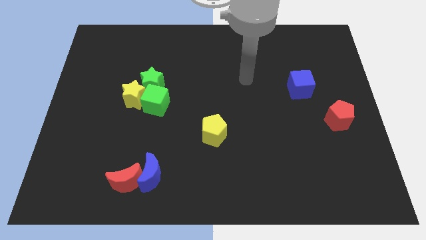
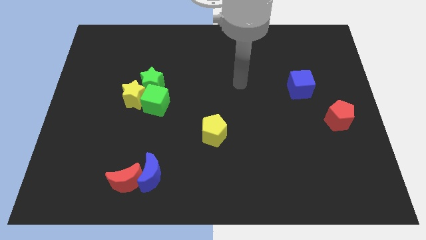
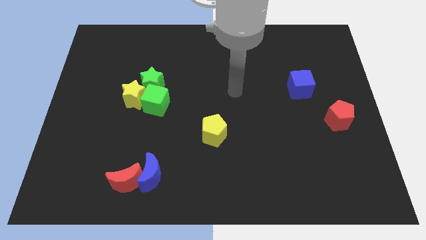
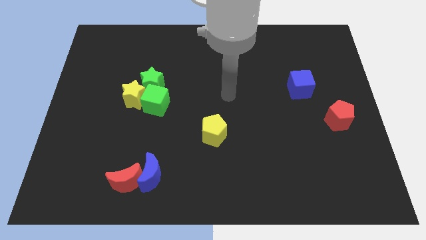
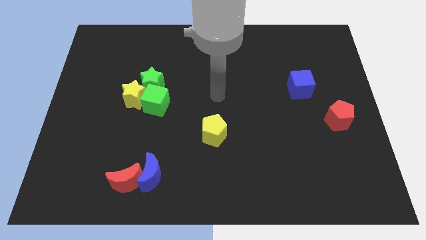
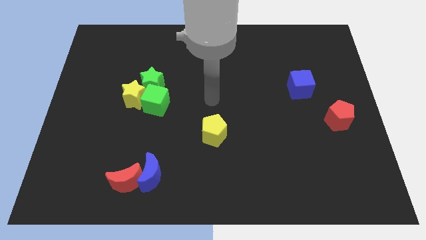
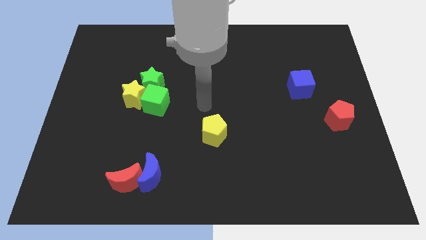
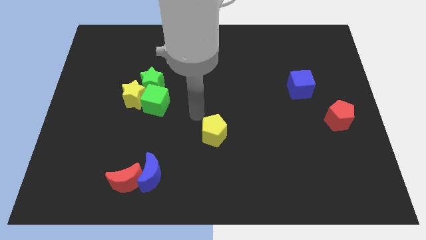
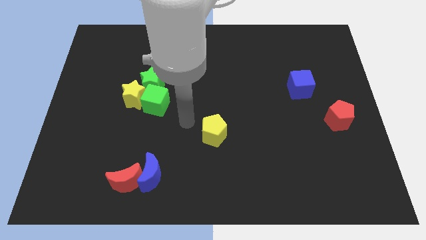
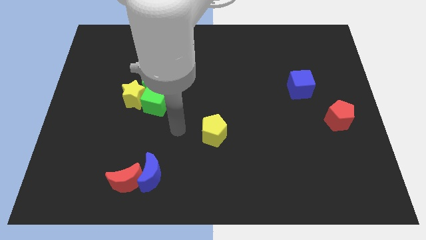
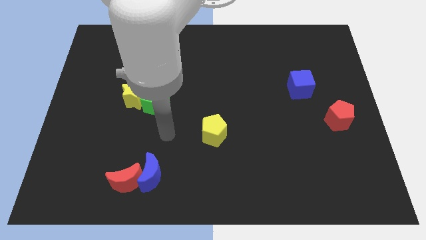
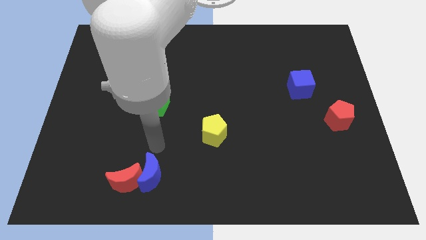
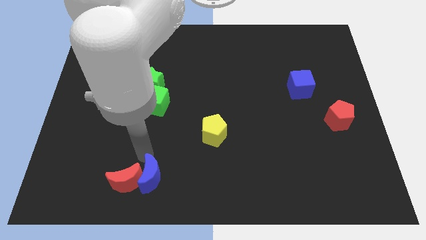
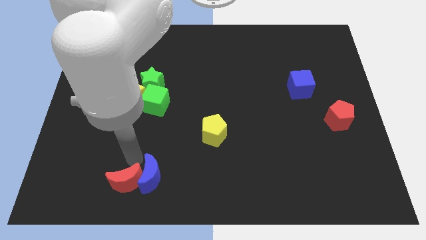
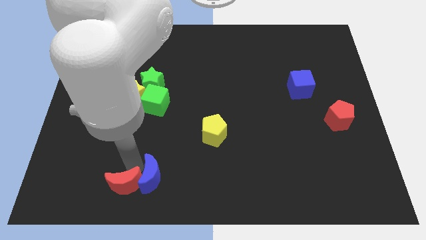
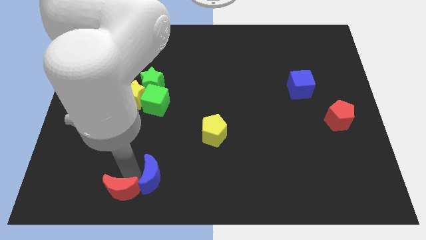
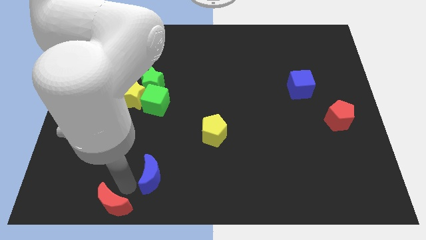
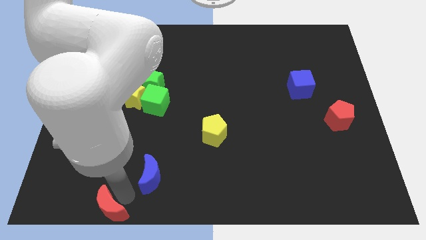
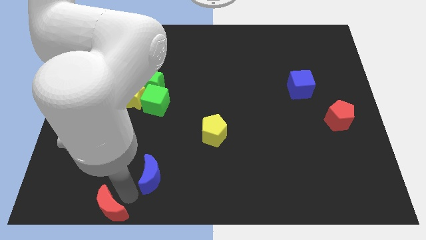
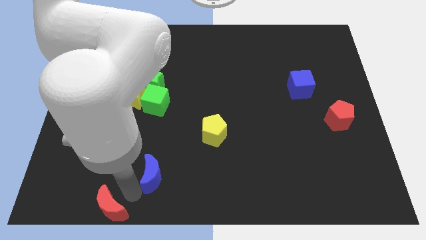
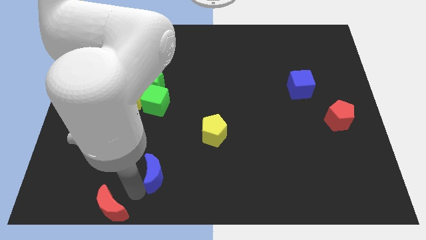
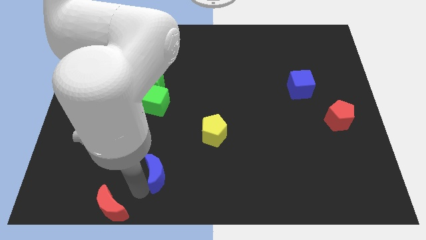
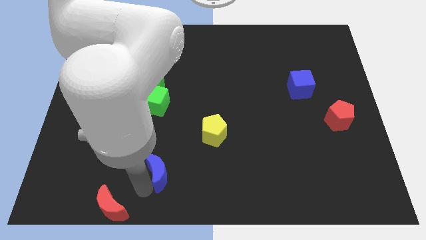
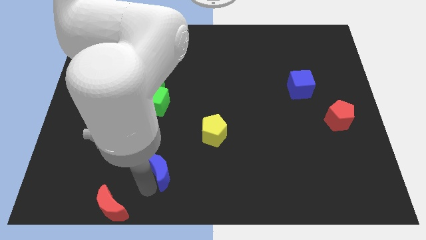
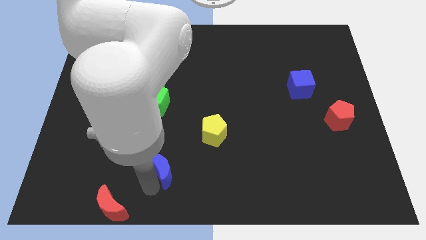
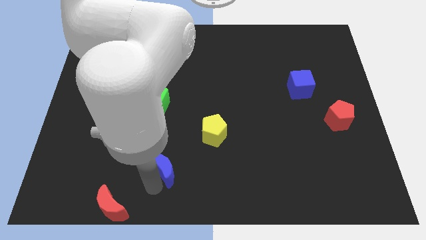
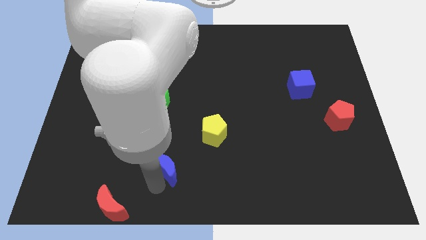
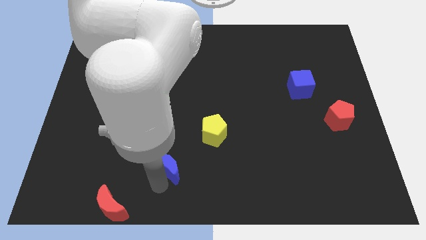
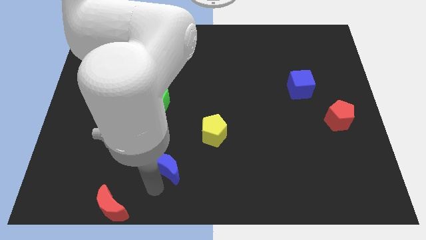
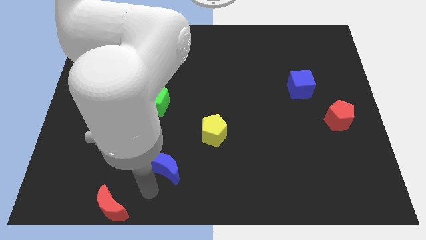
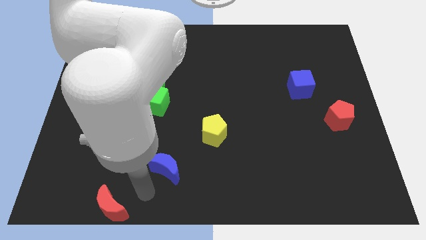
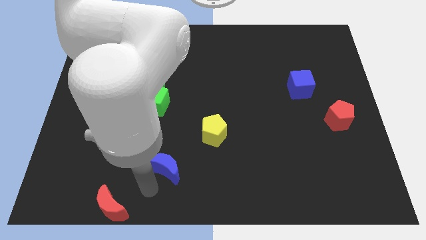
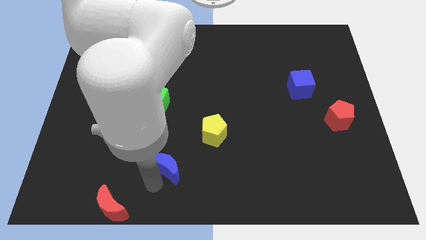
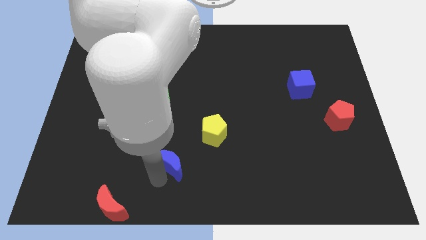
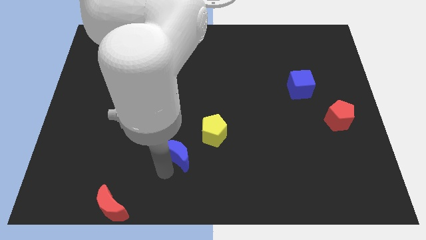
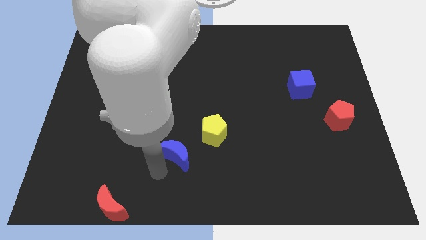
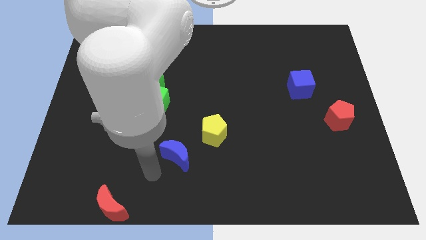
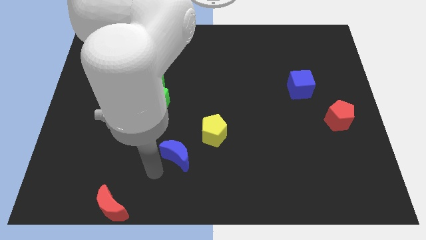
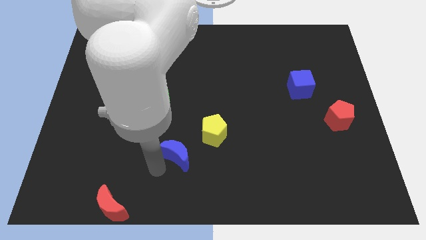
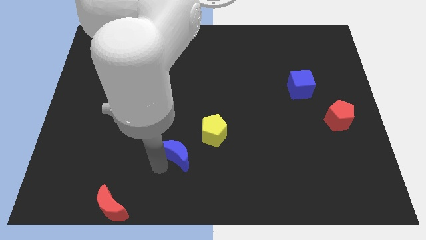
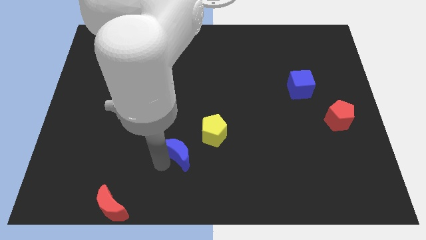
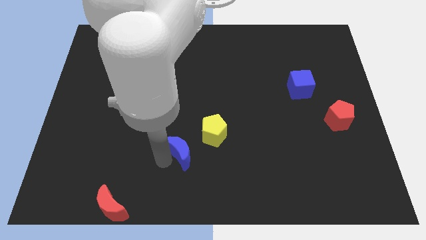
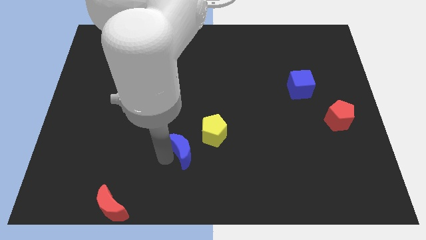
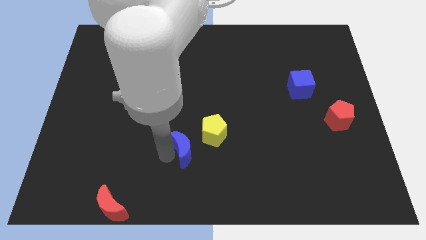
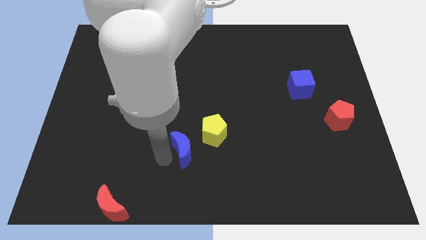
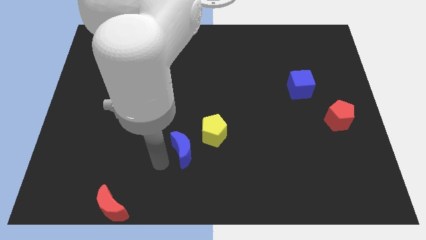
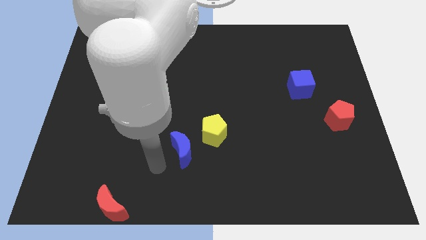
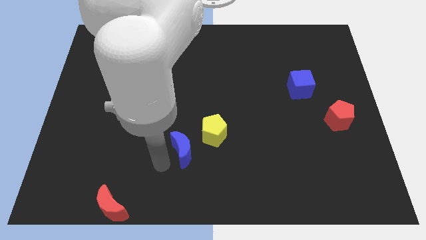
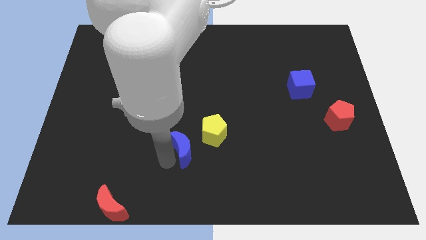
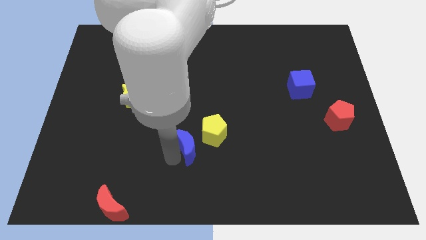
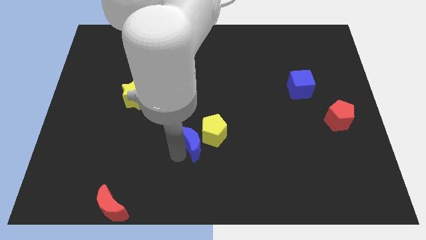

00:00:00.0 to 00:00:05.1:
slide the blue moon close to the yellow pentagon

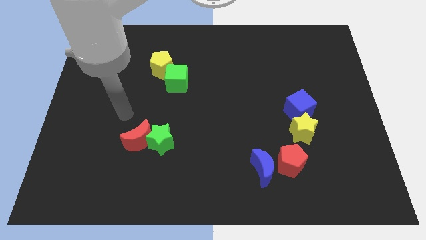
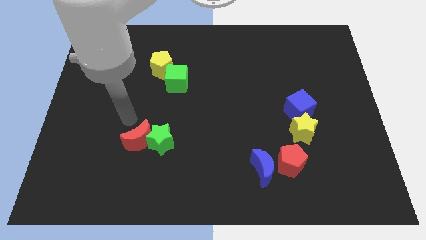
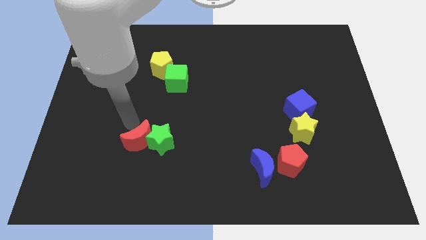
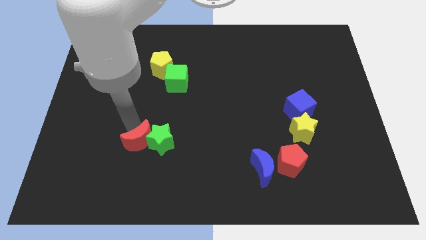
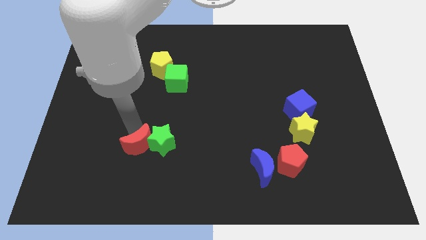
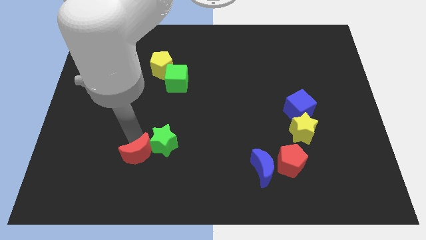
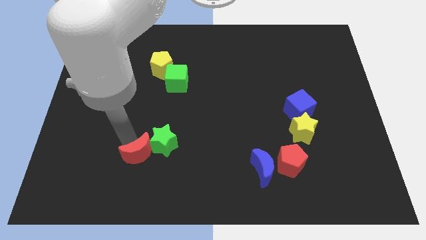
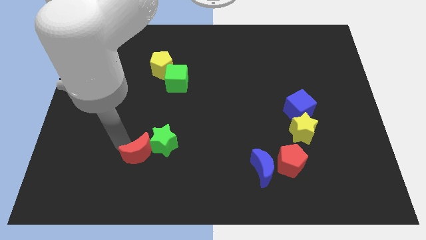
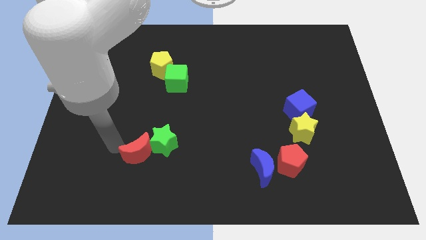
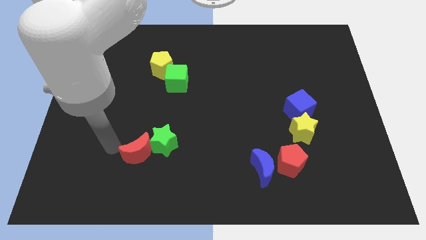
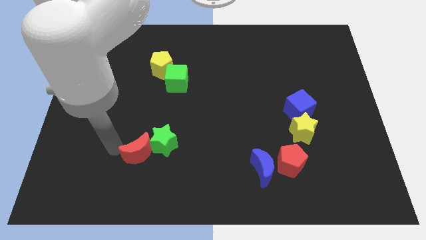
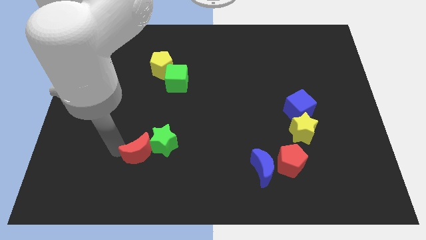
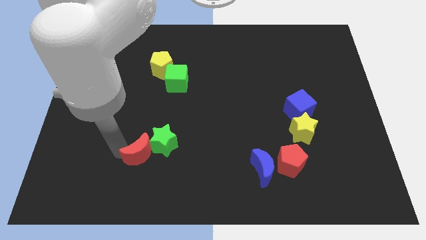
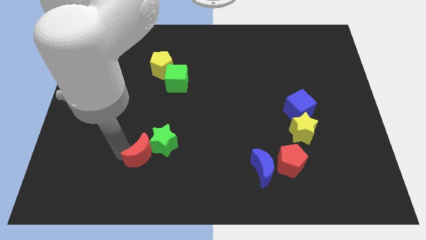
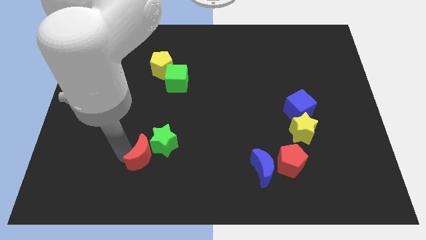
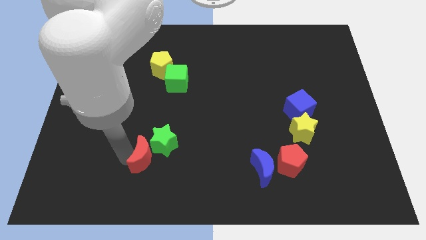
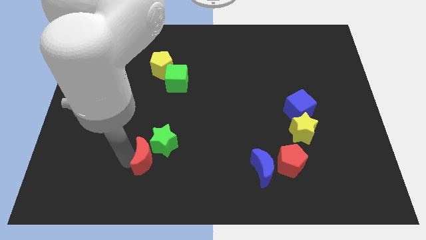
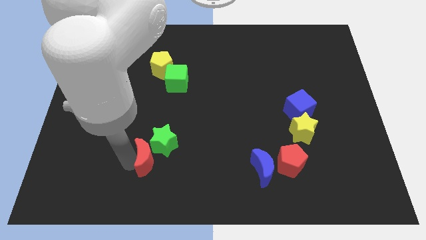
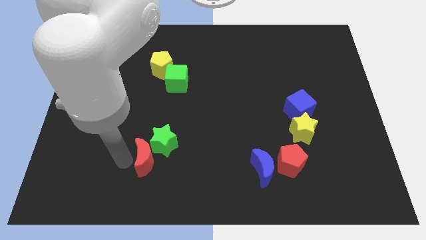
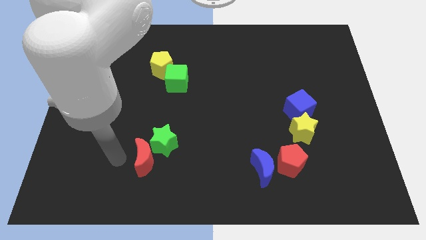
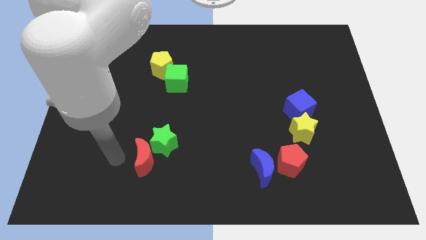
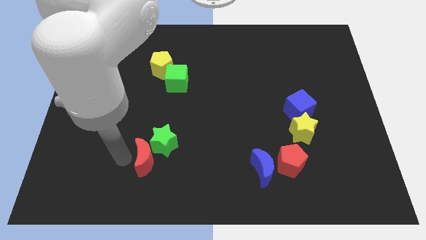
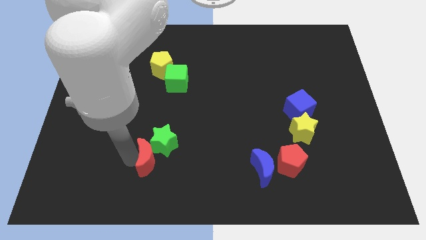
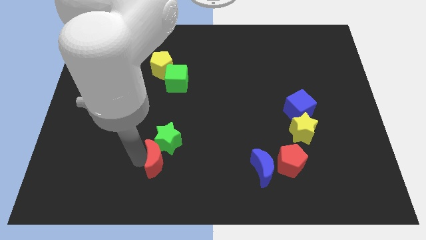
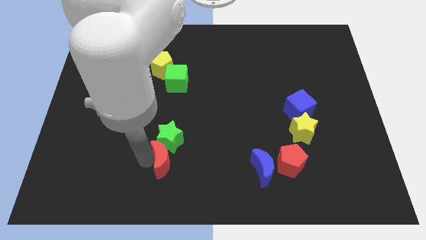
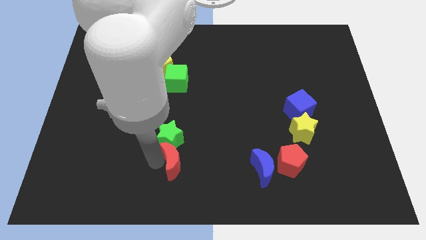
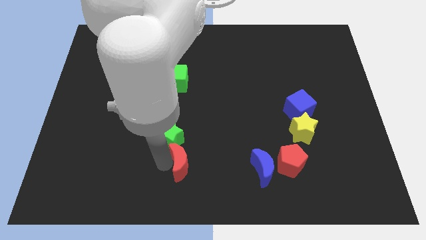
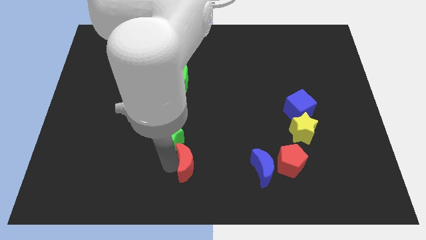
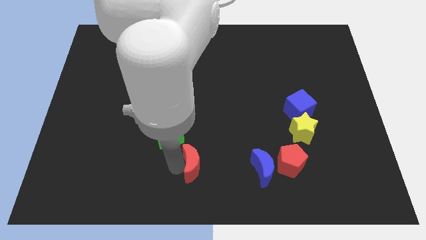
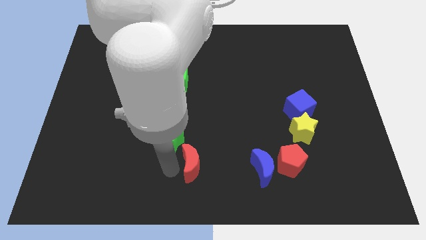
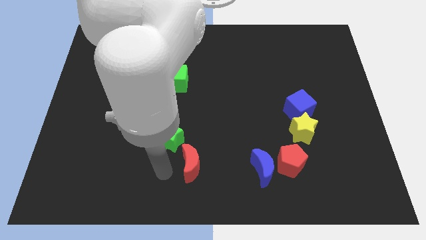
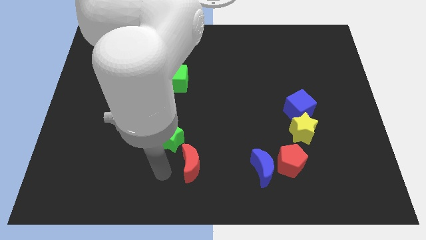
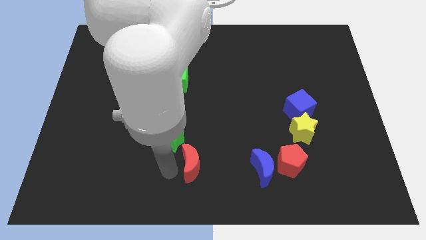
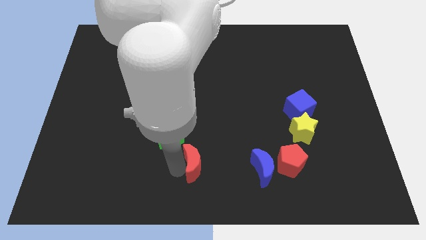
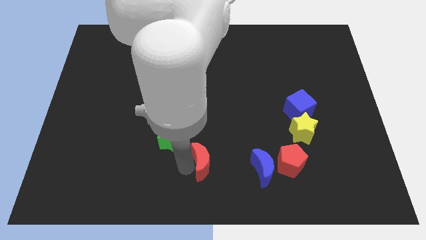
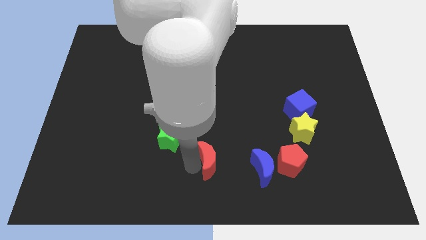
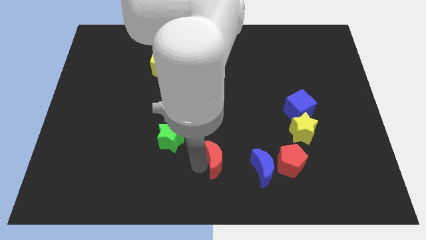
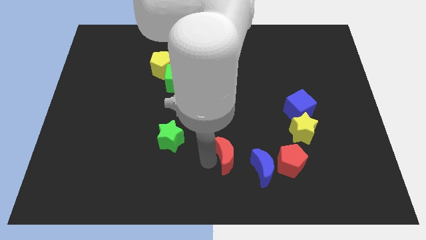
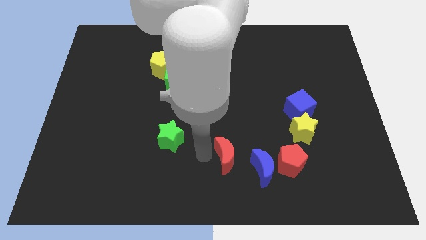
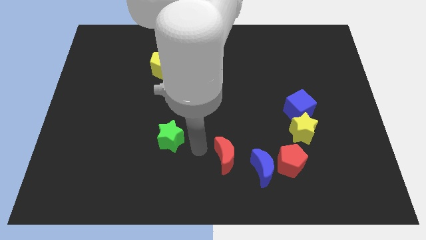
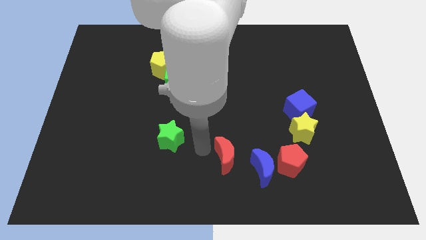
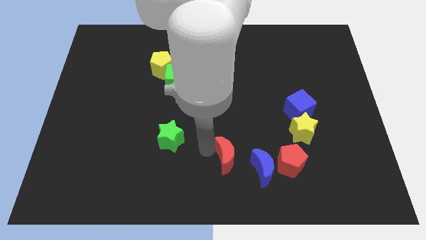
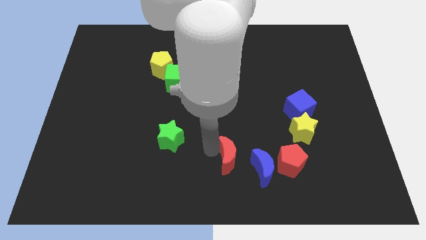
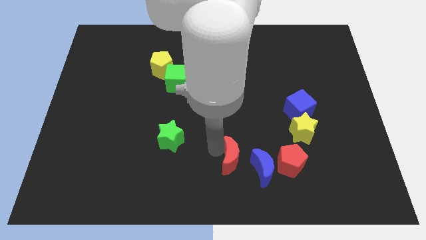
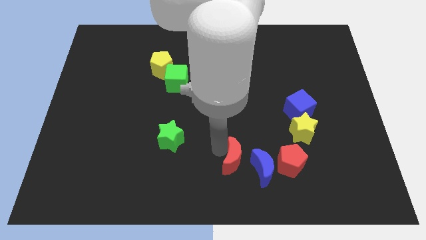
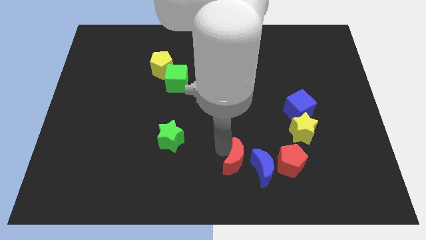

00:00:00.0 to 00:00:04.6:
push the red moon close to the blue moon
